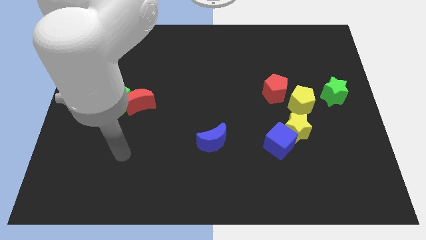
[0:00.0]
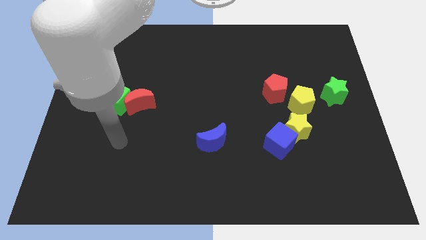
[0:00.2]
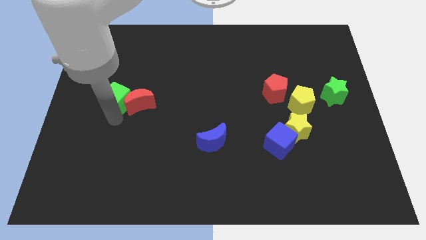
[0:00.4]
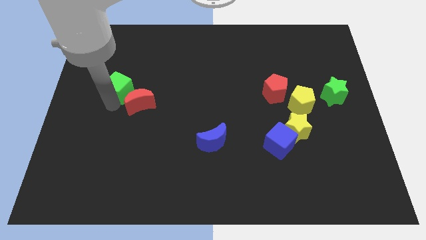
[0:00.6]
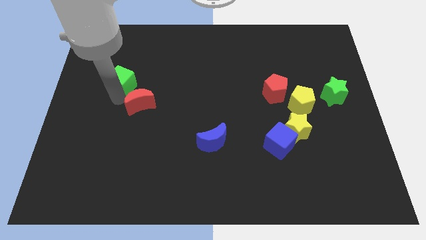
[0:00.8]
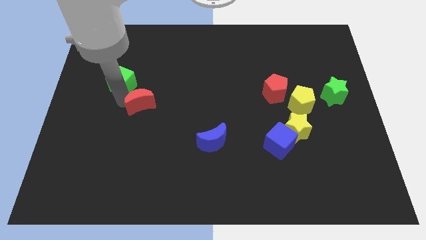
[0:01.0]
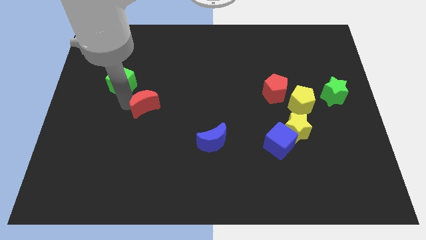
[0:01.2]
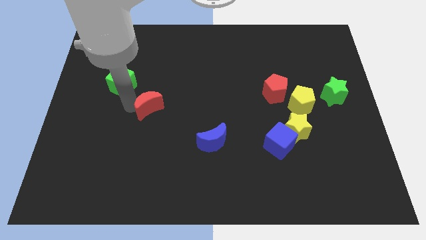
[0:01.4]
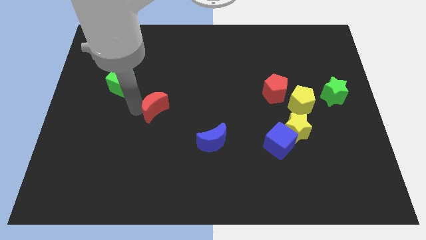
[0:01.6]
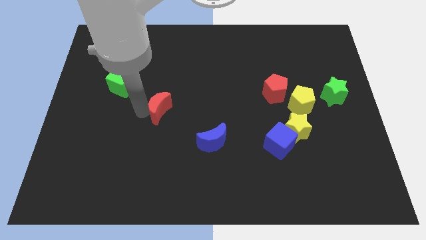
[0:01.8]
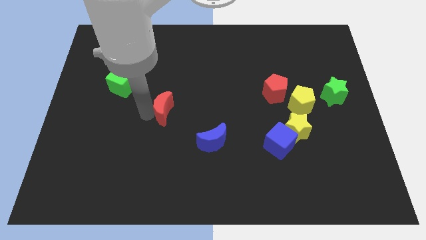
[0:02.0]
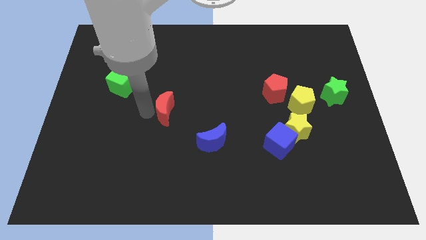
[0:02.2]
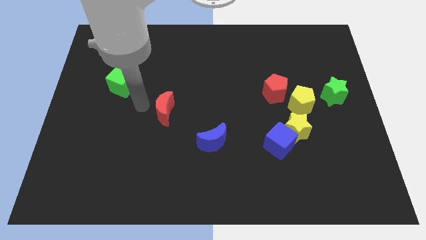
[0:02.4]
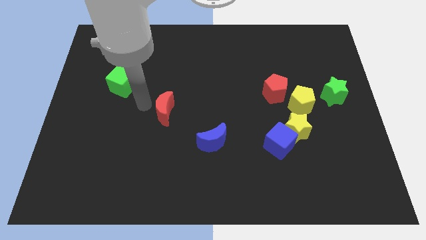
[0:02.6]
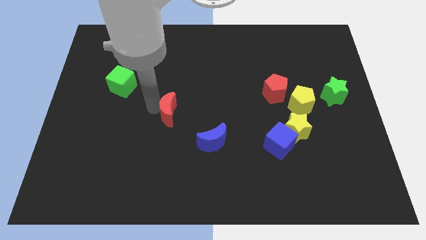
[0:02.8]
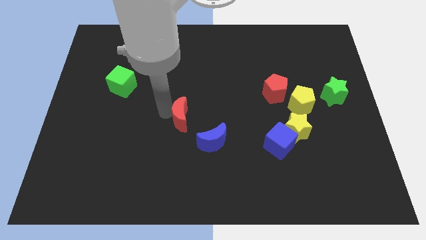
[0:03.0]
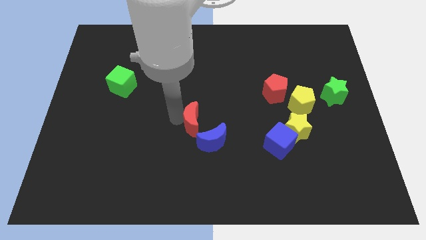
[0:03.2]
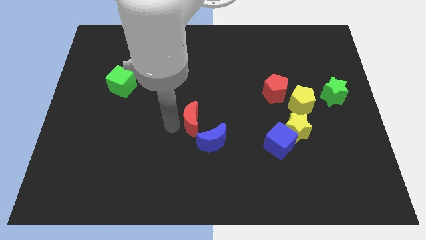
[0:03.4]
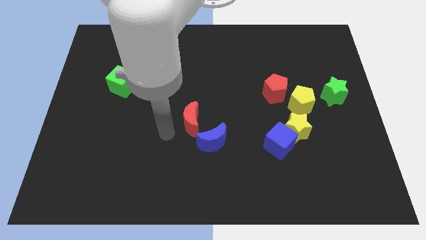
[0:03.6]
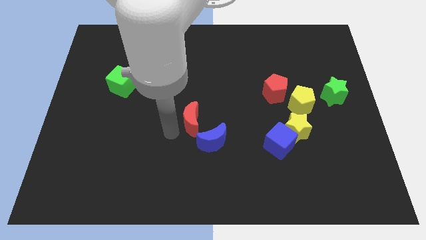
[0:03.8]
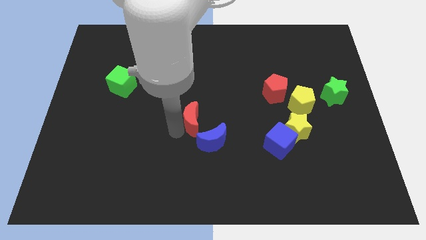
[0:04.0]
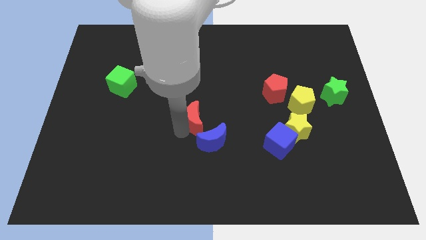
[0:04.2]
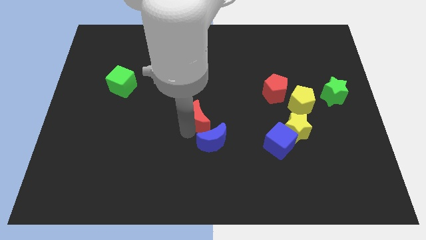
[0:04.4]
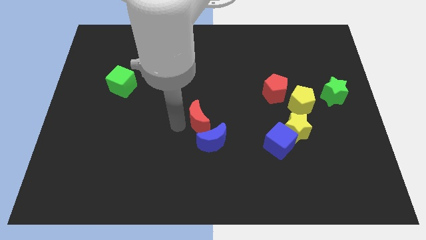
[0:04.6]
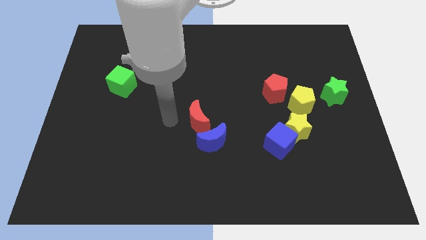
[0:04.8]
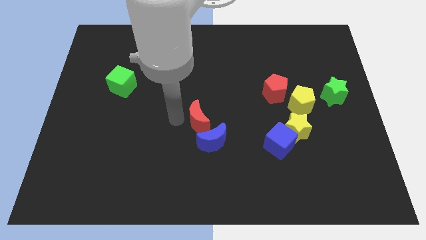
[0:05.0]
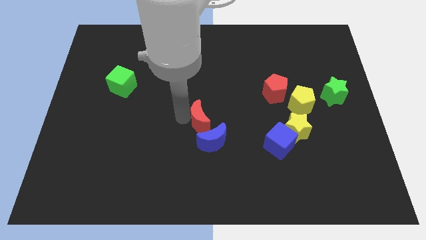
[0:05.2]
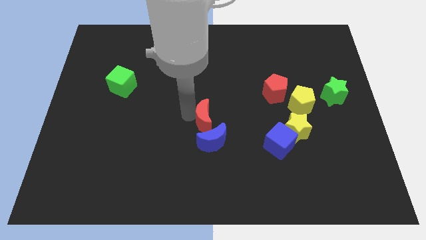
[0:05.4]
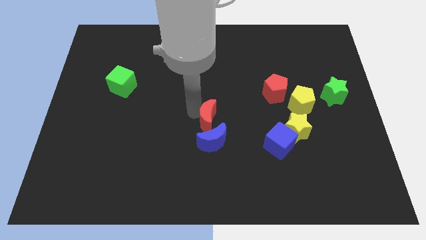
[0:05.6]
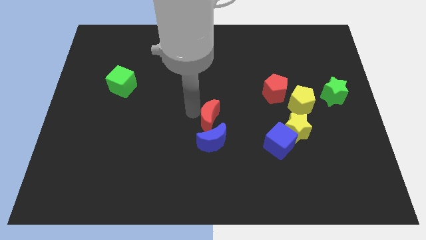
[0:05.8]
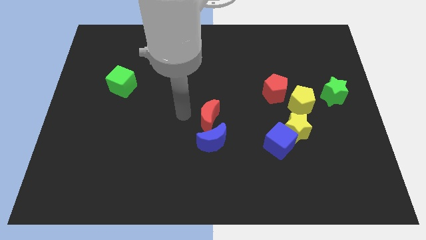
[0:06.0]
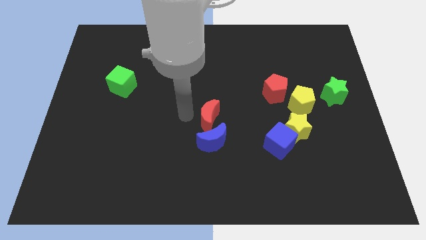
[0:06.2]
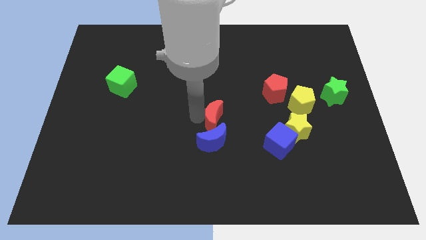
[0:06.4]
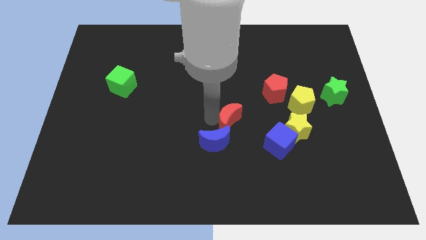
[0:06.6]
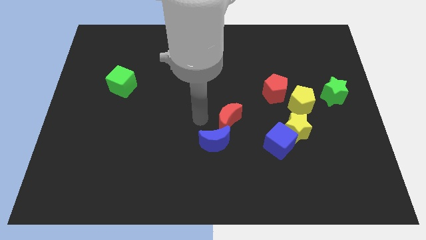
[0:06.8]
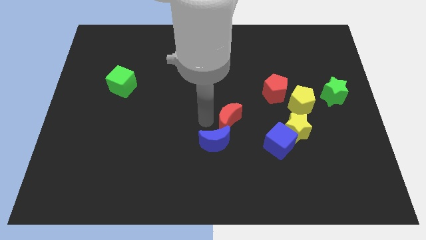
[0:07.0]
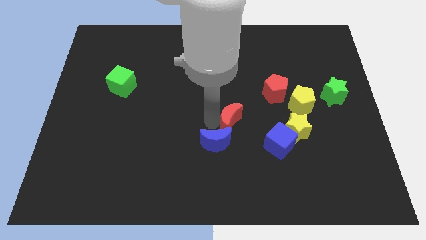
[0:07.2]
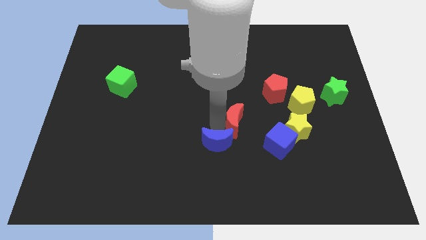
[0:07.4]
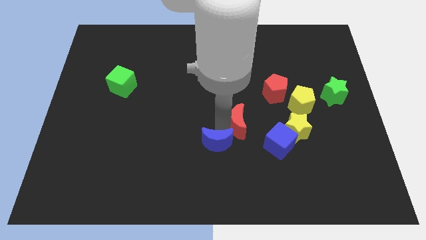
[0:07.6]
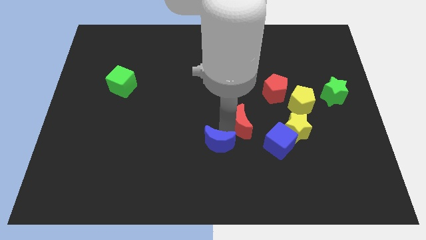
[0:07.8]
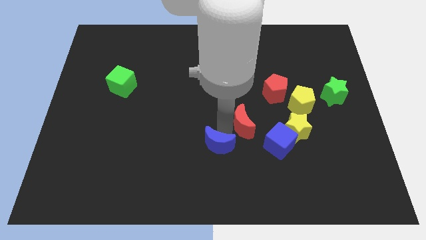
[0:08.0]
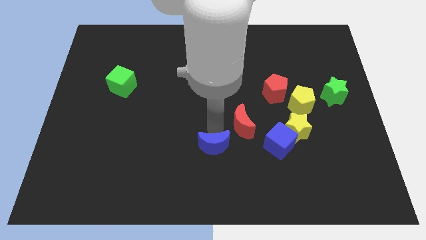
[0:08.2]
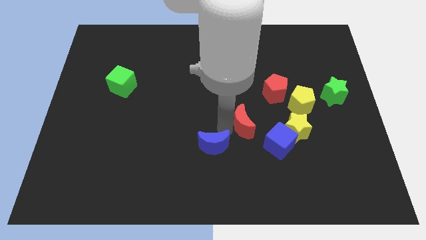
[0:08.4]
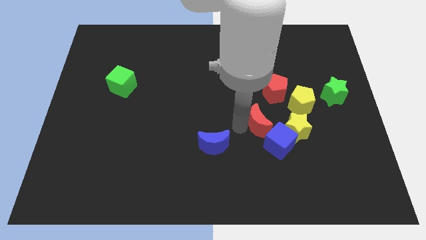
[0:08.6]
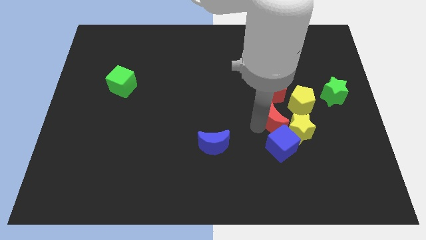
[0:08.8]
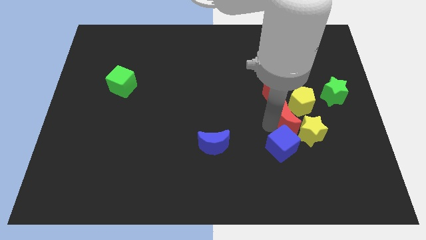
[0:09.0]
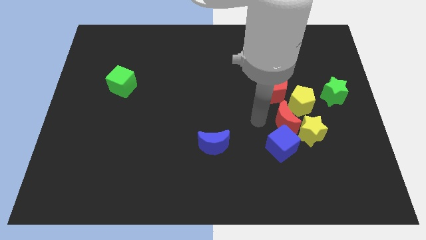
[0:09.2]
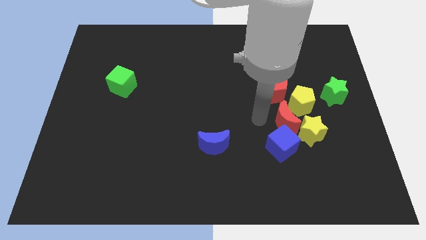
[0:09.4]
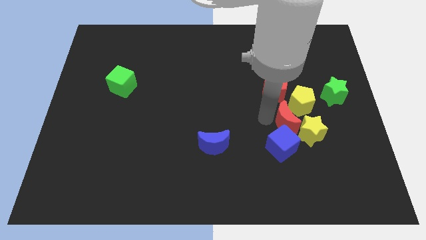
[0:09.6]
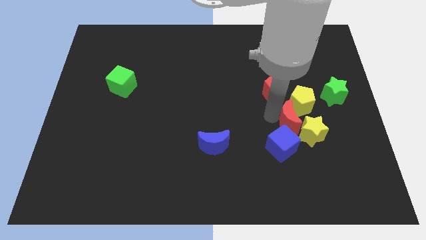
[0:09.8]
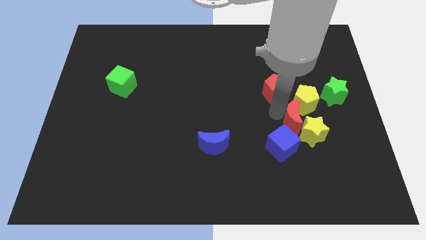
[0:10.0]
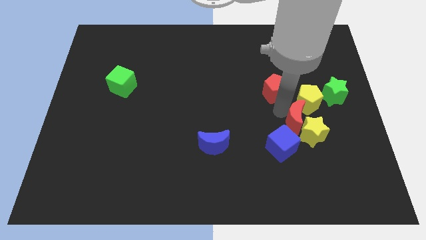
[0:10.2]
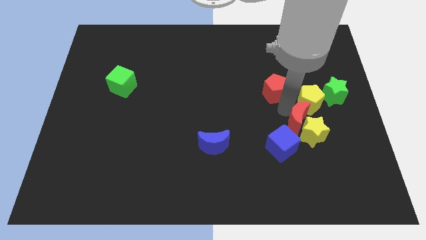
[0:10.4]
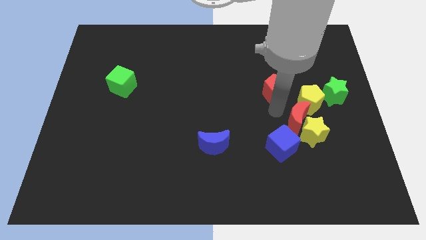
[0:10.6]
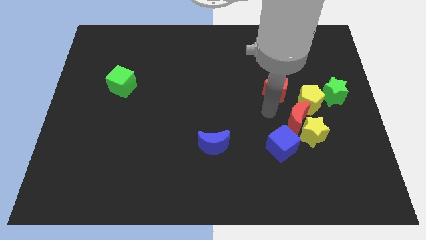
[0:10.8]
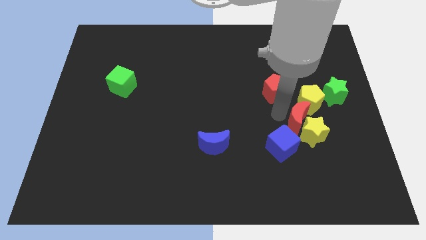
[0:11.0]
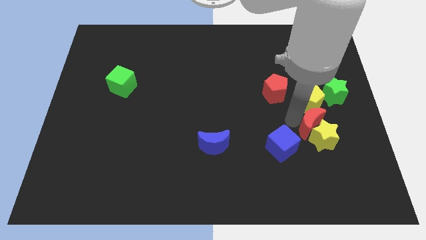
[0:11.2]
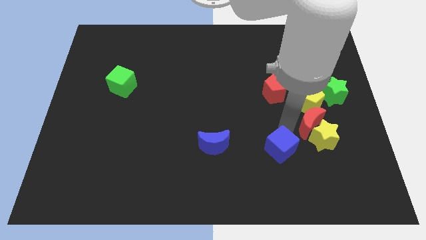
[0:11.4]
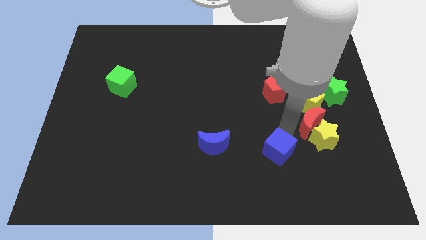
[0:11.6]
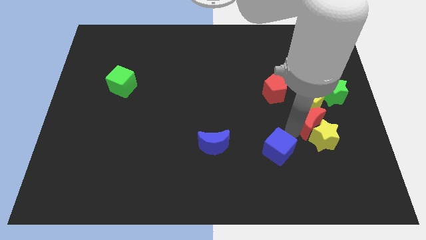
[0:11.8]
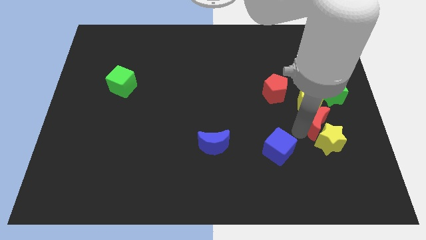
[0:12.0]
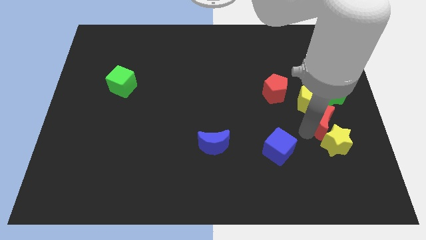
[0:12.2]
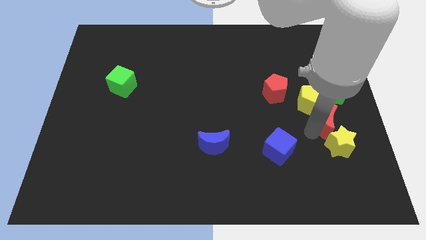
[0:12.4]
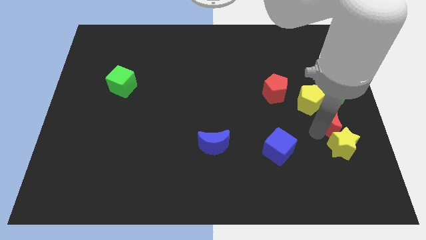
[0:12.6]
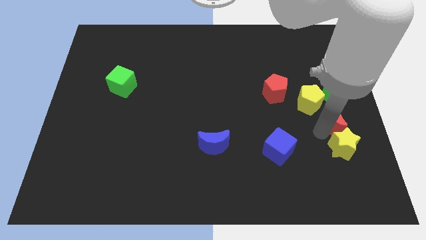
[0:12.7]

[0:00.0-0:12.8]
move the red moon to the center right
